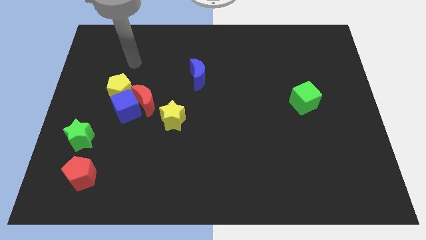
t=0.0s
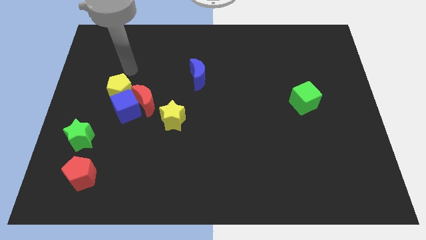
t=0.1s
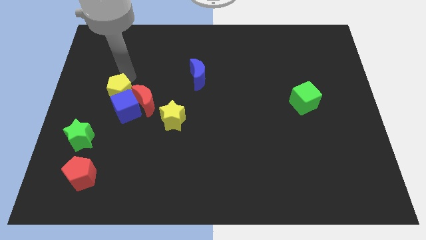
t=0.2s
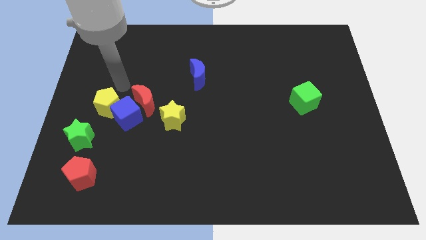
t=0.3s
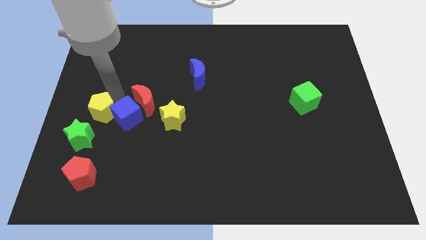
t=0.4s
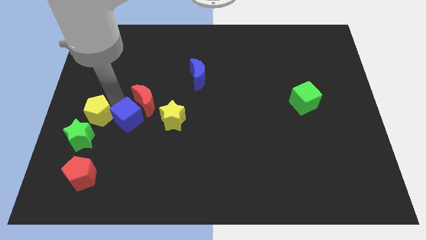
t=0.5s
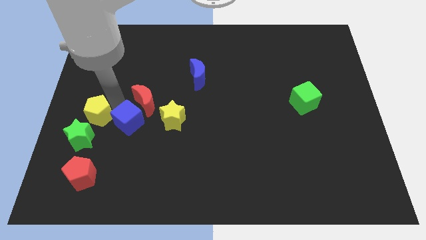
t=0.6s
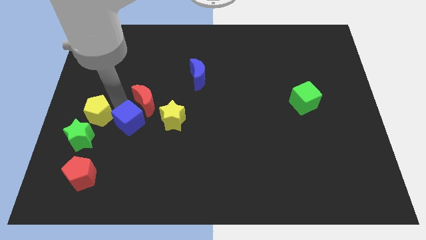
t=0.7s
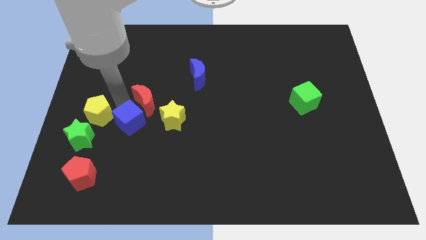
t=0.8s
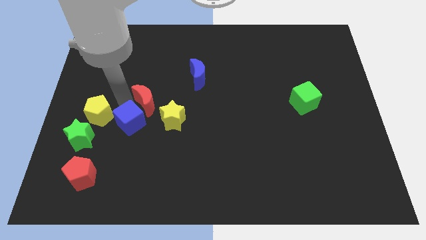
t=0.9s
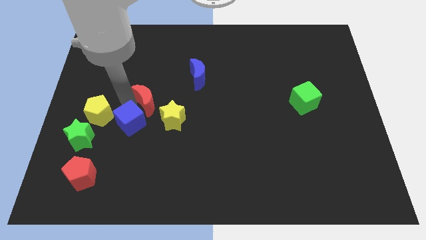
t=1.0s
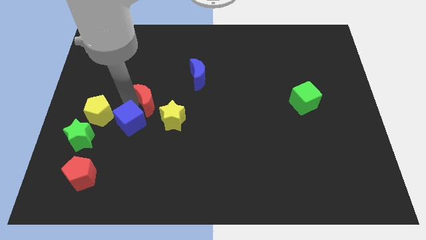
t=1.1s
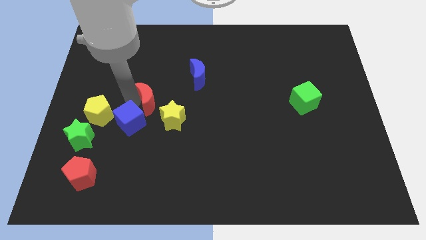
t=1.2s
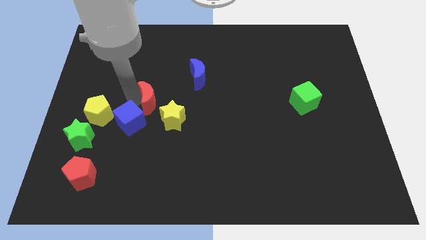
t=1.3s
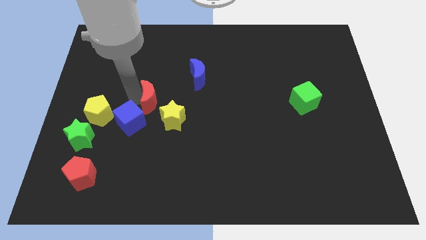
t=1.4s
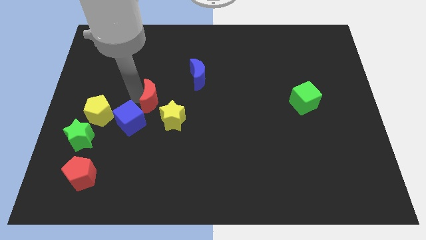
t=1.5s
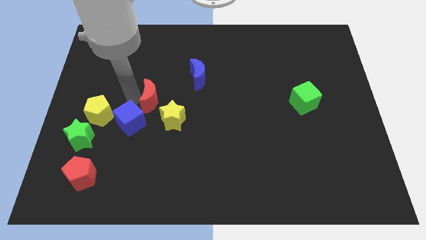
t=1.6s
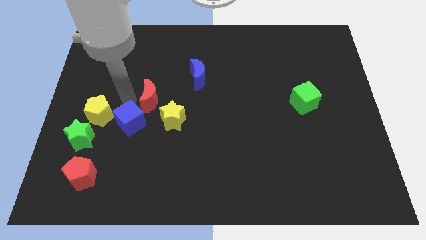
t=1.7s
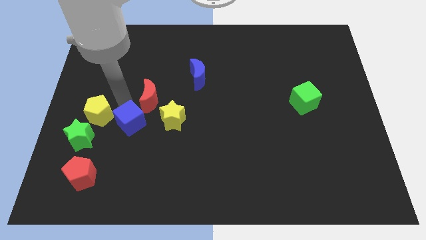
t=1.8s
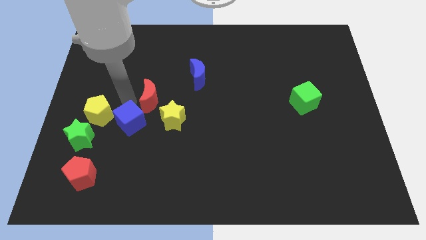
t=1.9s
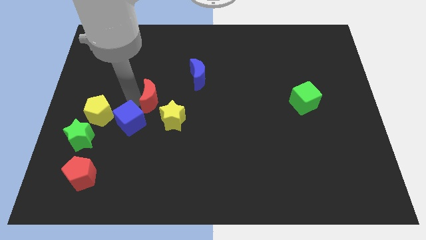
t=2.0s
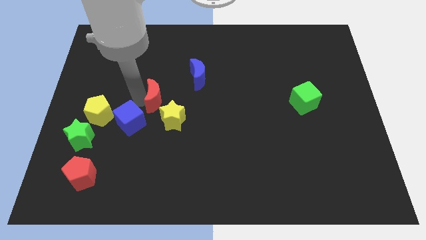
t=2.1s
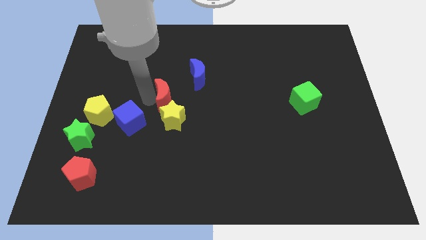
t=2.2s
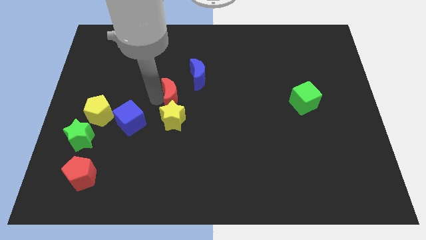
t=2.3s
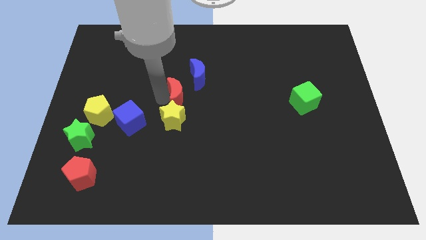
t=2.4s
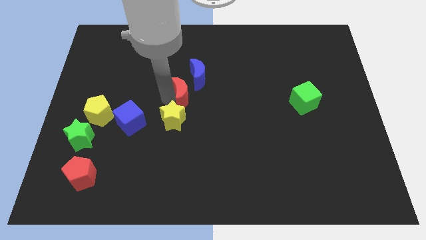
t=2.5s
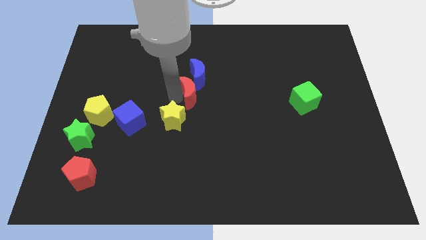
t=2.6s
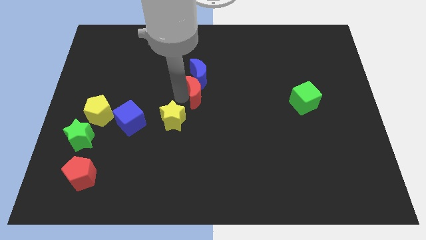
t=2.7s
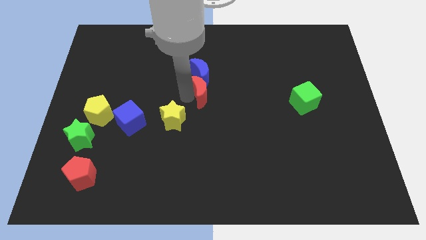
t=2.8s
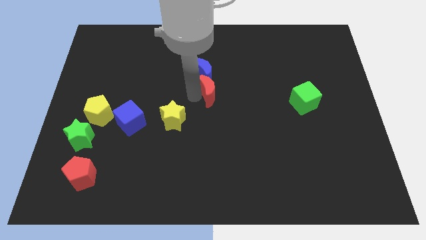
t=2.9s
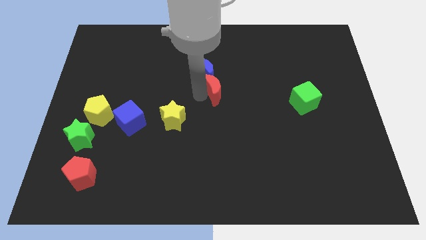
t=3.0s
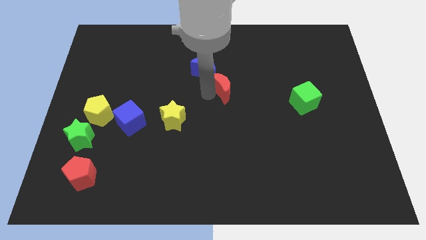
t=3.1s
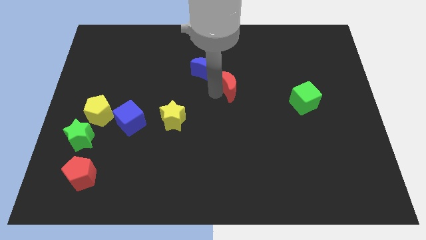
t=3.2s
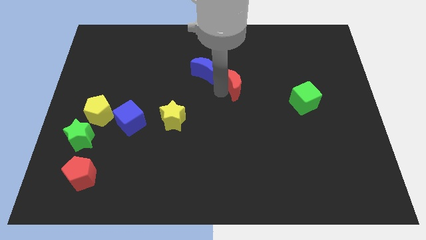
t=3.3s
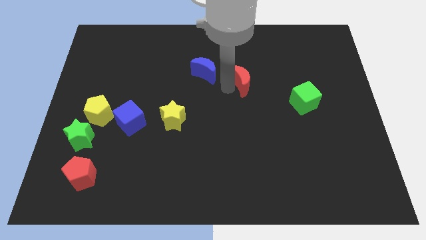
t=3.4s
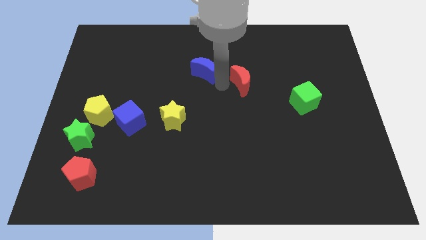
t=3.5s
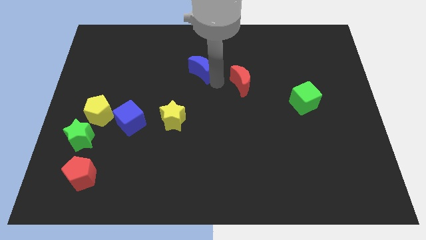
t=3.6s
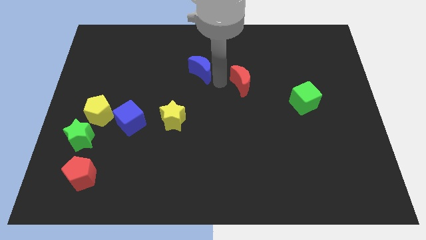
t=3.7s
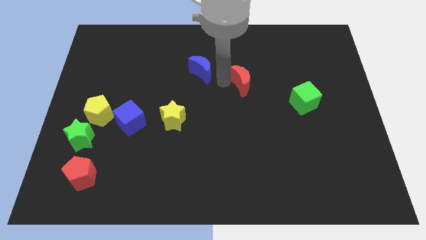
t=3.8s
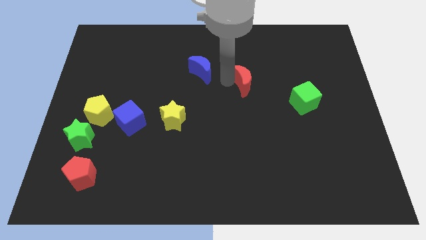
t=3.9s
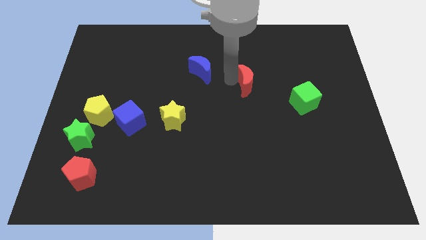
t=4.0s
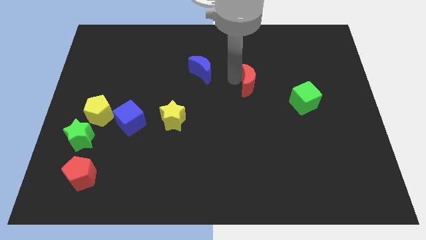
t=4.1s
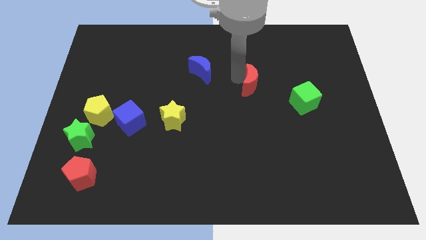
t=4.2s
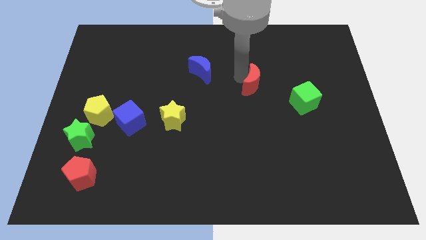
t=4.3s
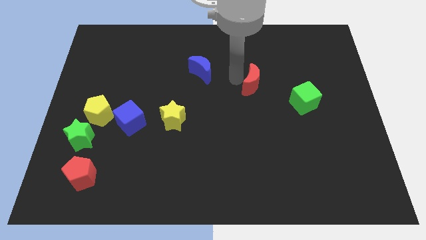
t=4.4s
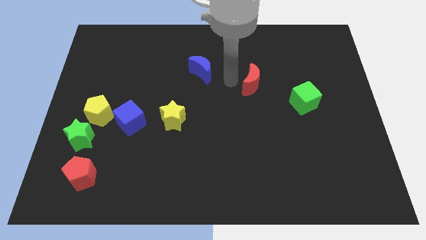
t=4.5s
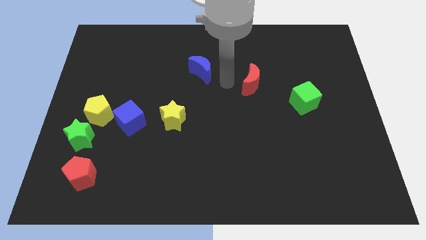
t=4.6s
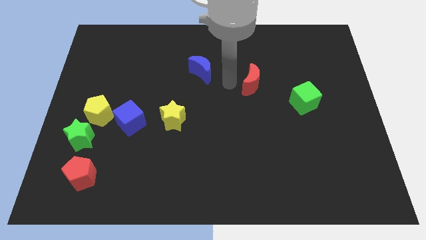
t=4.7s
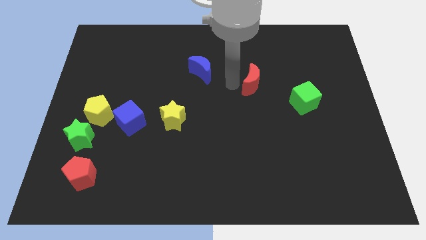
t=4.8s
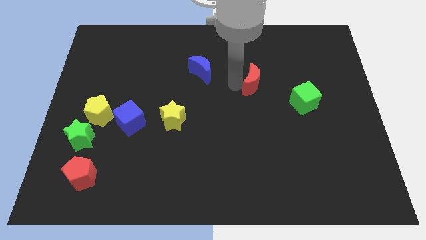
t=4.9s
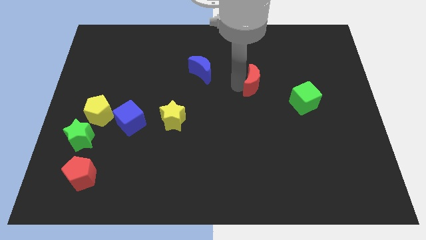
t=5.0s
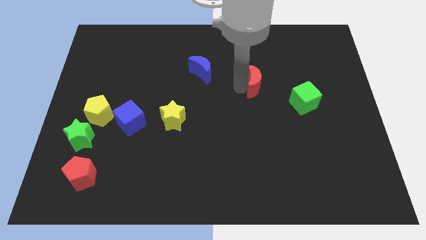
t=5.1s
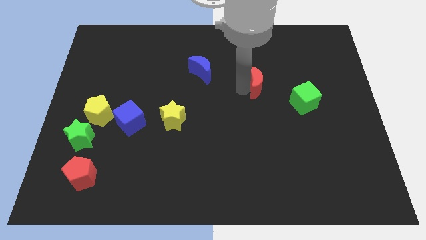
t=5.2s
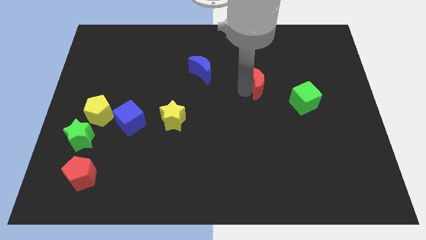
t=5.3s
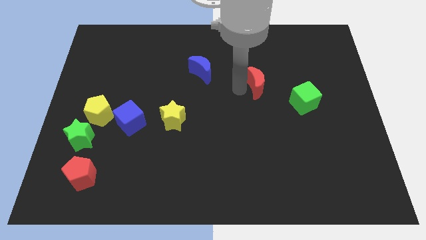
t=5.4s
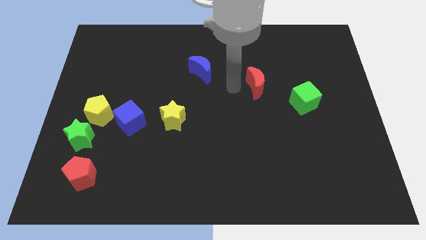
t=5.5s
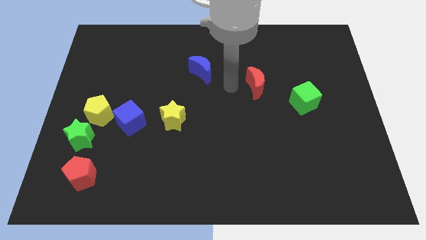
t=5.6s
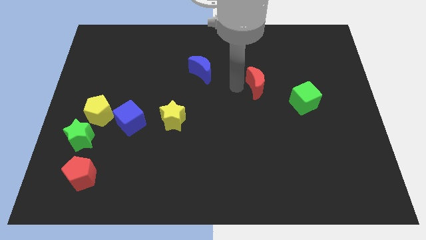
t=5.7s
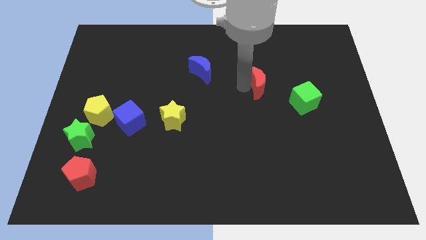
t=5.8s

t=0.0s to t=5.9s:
slide the red moon to the top left of the green cube

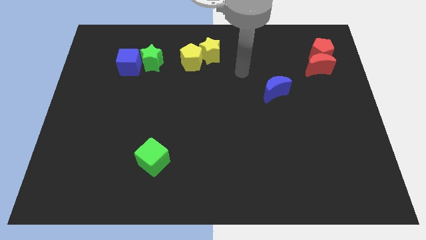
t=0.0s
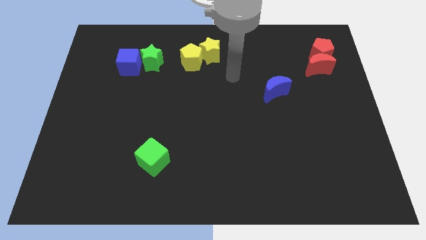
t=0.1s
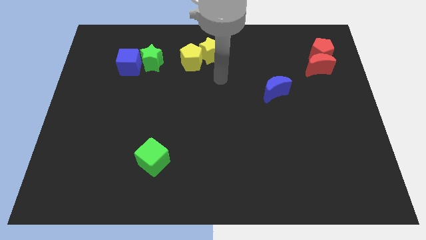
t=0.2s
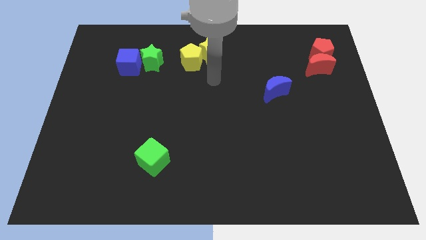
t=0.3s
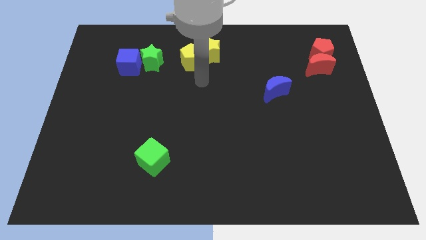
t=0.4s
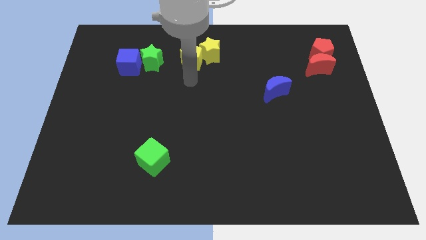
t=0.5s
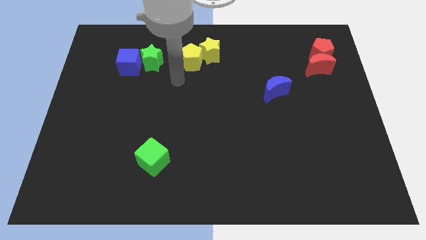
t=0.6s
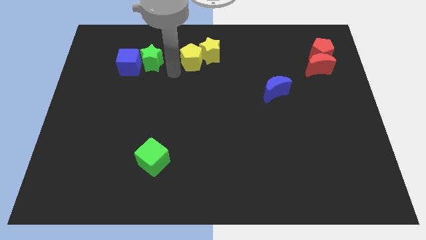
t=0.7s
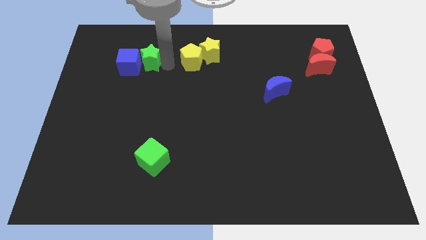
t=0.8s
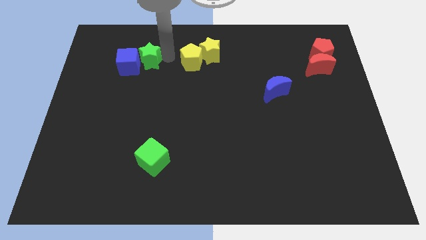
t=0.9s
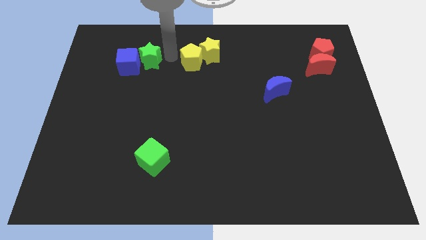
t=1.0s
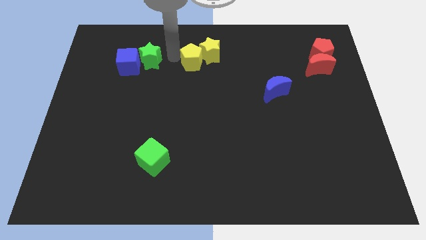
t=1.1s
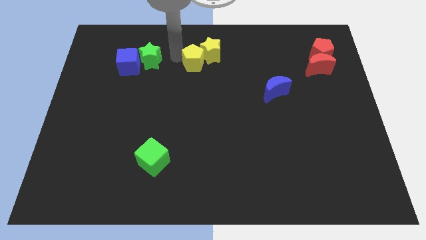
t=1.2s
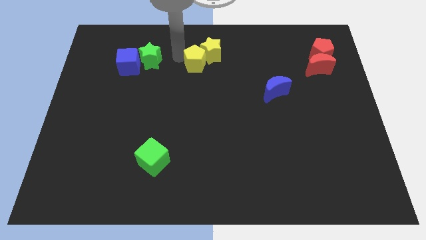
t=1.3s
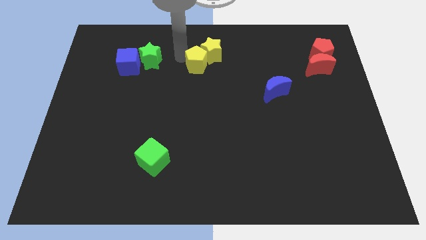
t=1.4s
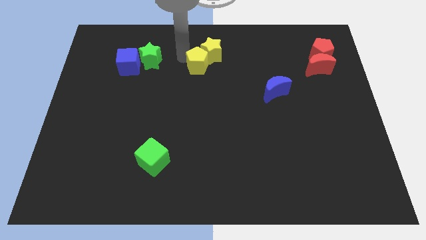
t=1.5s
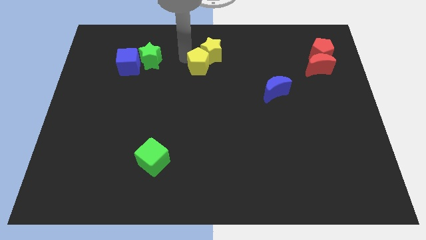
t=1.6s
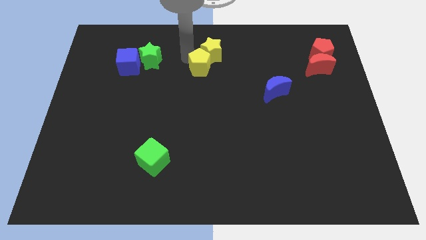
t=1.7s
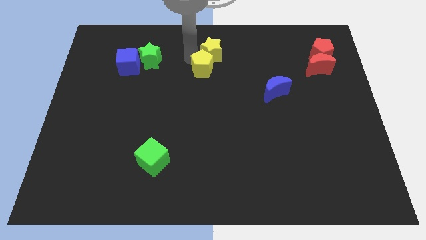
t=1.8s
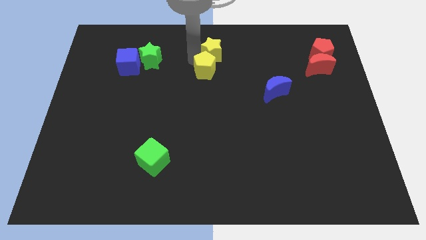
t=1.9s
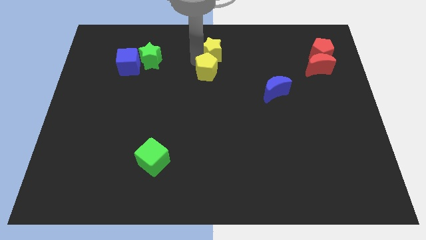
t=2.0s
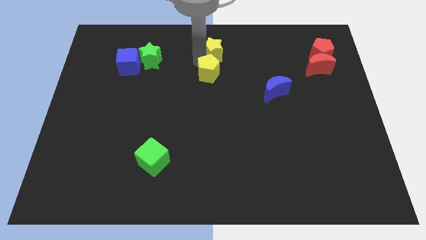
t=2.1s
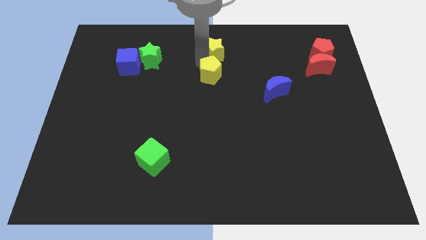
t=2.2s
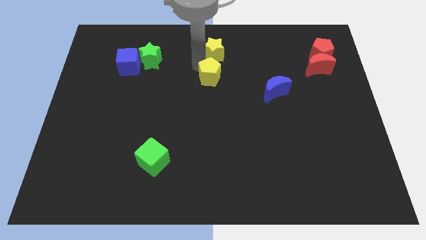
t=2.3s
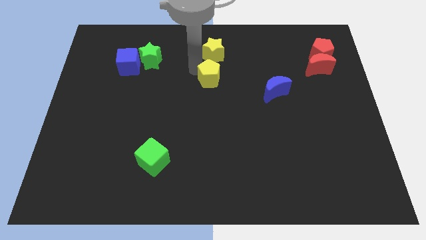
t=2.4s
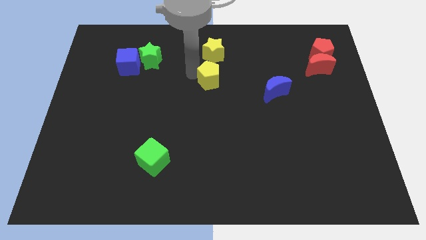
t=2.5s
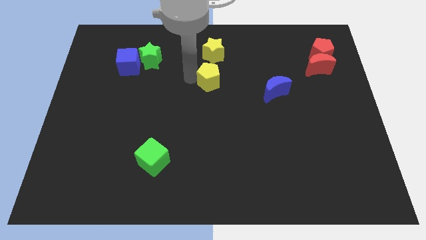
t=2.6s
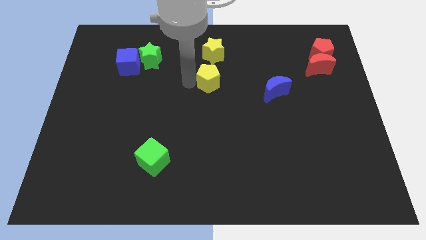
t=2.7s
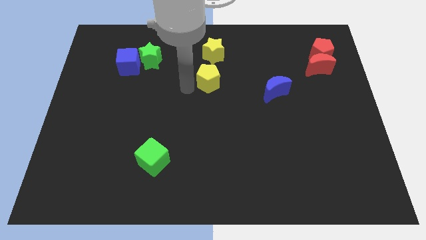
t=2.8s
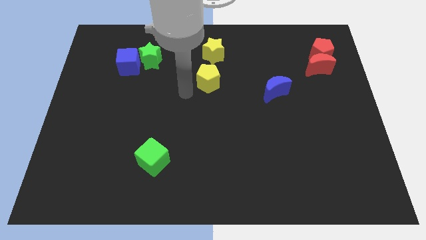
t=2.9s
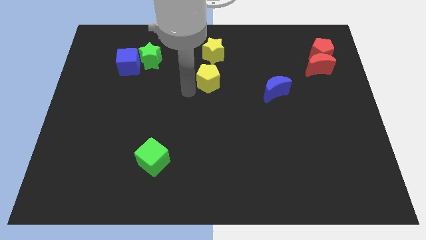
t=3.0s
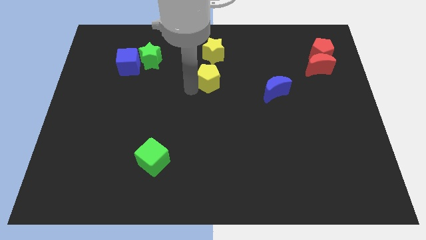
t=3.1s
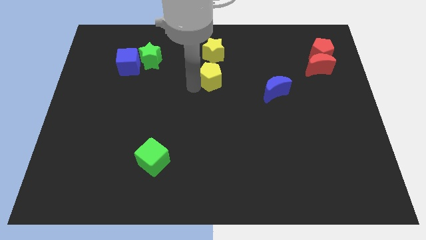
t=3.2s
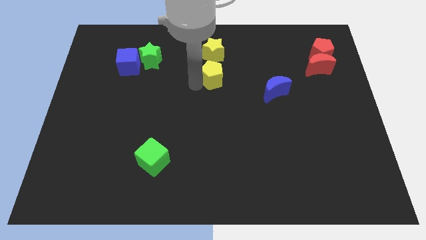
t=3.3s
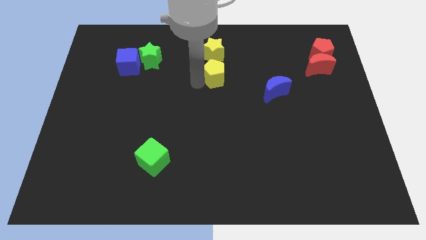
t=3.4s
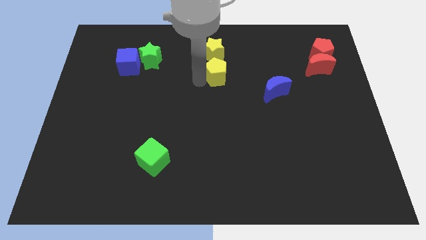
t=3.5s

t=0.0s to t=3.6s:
push the yellow pentagon to the bottom right of the yellow star
